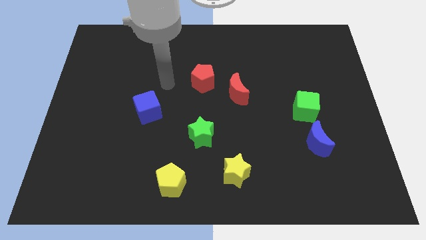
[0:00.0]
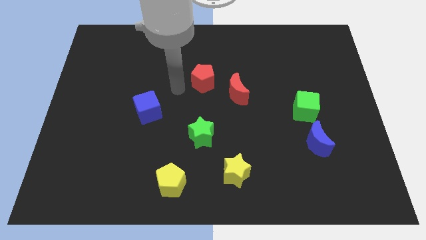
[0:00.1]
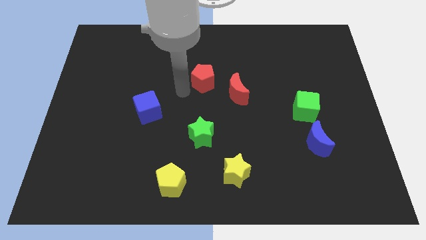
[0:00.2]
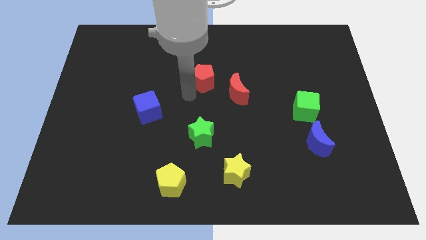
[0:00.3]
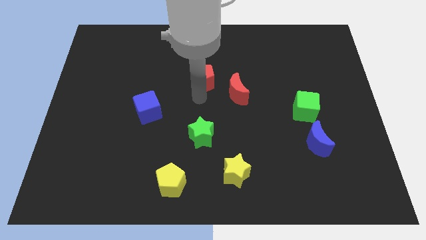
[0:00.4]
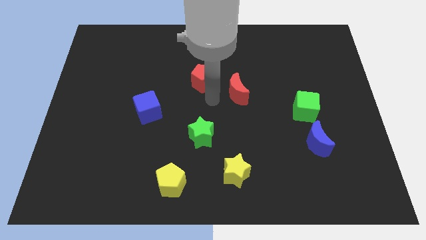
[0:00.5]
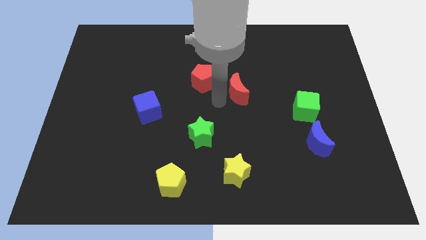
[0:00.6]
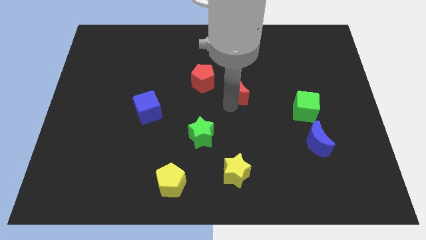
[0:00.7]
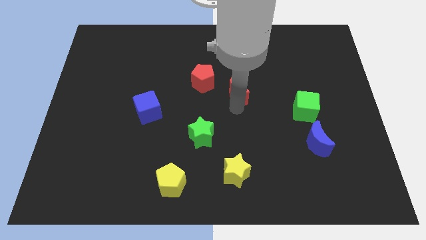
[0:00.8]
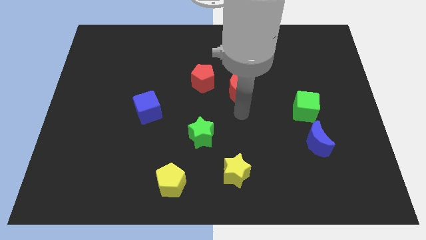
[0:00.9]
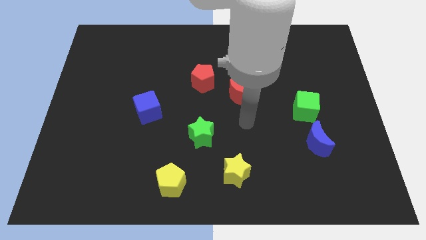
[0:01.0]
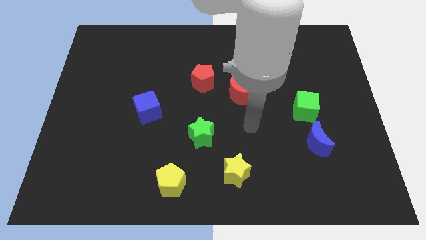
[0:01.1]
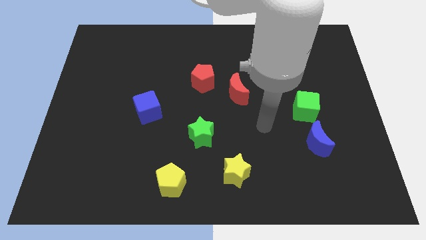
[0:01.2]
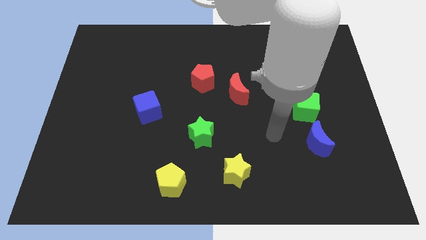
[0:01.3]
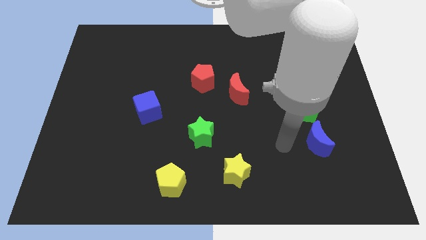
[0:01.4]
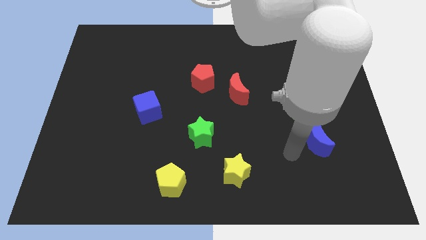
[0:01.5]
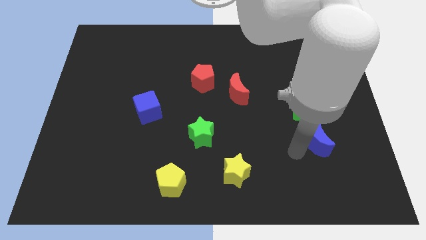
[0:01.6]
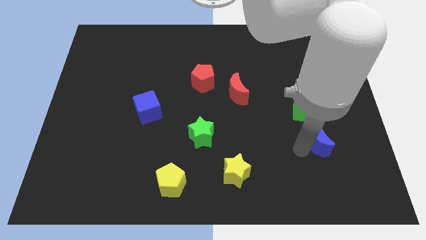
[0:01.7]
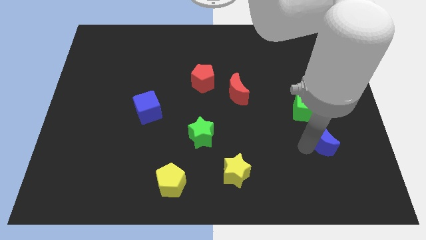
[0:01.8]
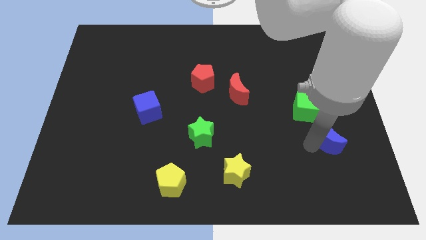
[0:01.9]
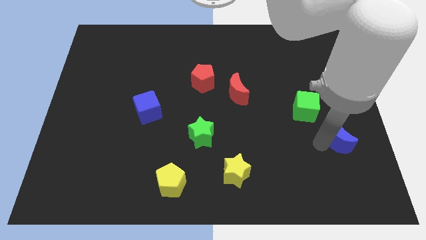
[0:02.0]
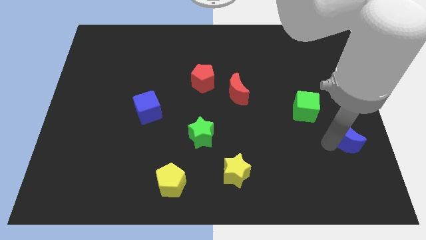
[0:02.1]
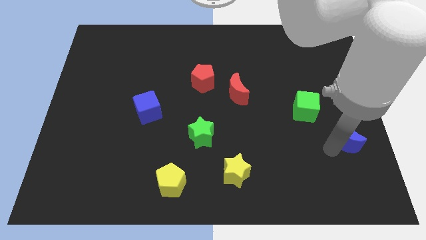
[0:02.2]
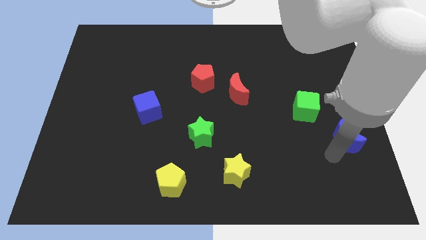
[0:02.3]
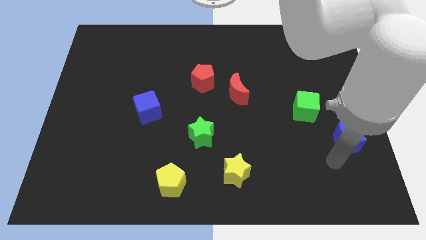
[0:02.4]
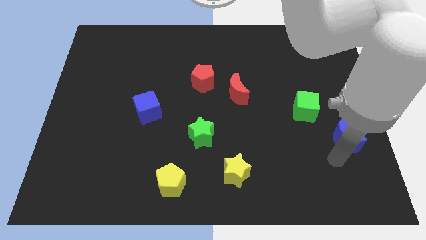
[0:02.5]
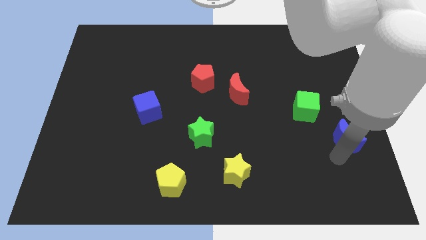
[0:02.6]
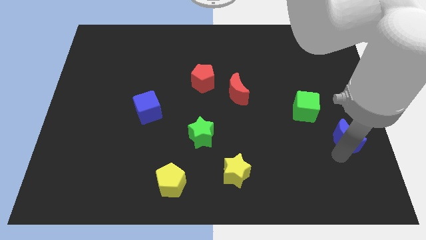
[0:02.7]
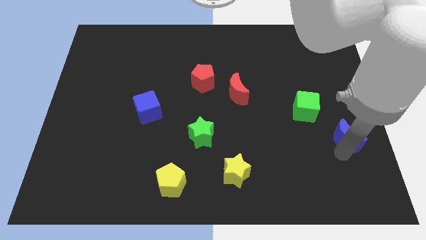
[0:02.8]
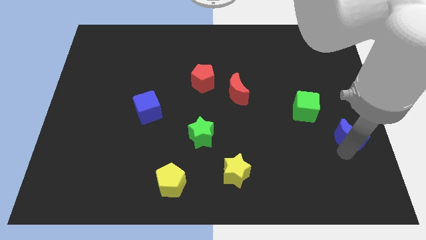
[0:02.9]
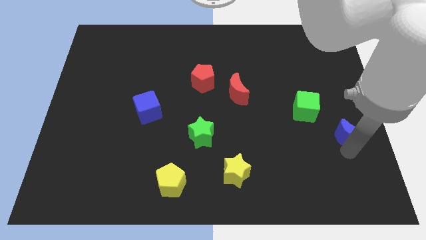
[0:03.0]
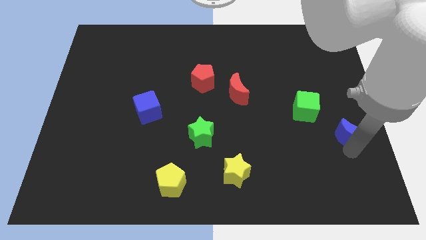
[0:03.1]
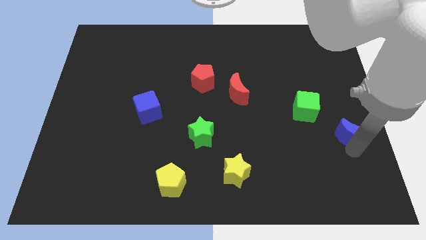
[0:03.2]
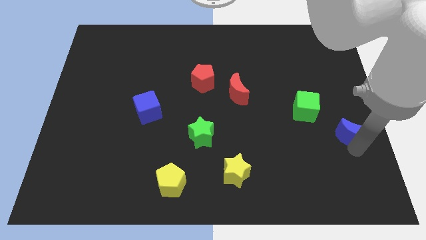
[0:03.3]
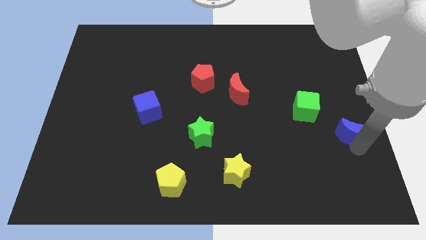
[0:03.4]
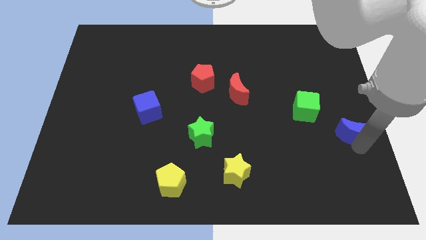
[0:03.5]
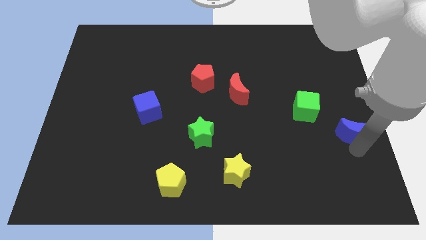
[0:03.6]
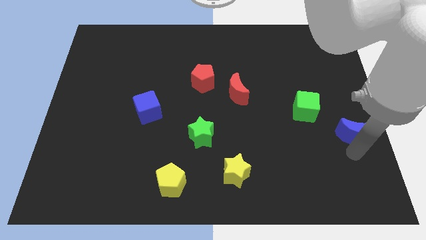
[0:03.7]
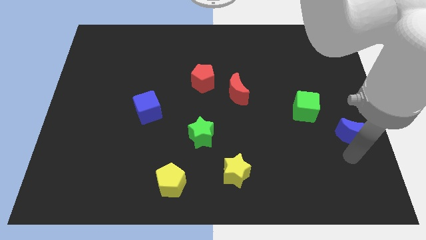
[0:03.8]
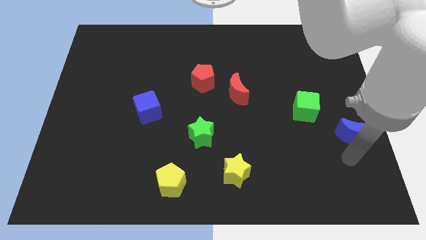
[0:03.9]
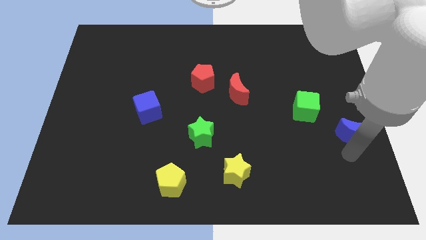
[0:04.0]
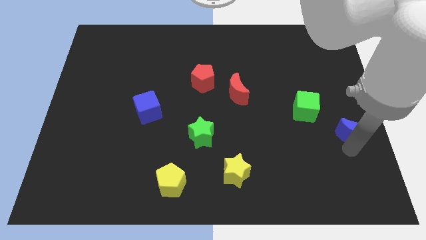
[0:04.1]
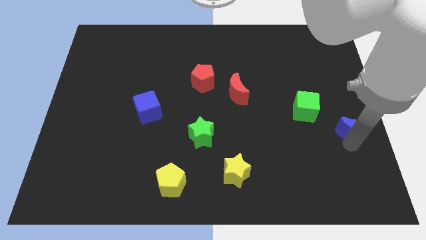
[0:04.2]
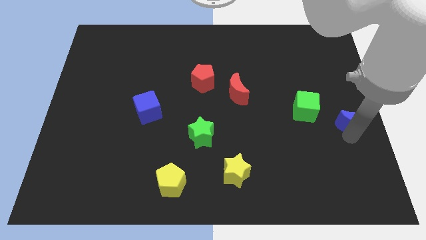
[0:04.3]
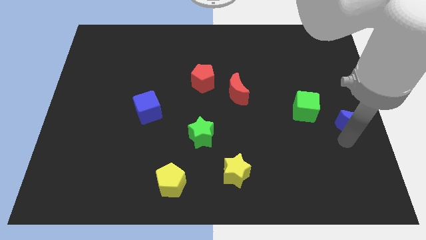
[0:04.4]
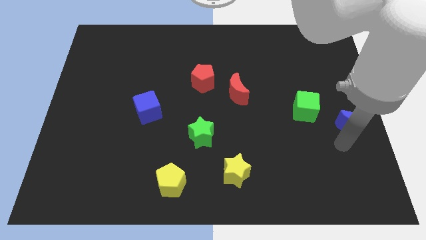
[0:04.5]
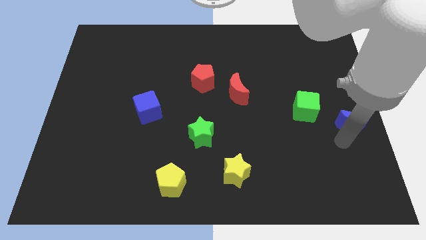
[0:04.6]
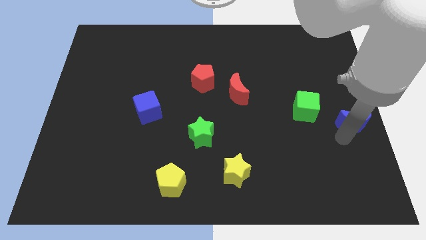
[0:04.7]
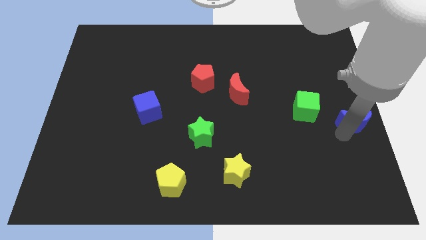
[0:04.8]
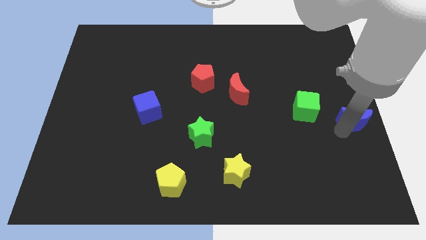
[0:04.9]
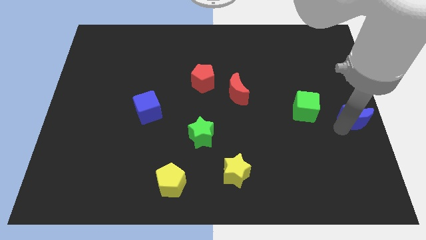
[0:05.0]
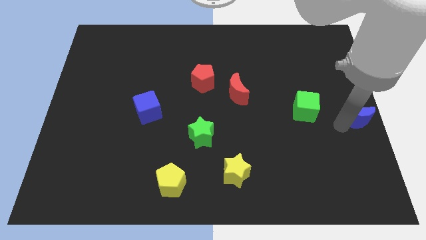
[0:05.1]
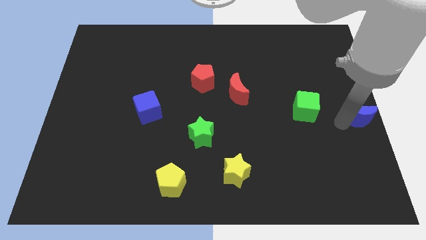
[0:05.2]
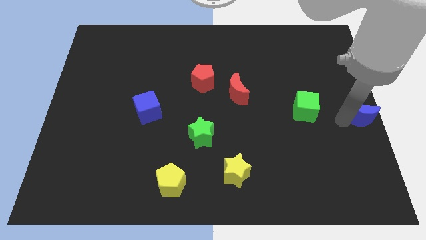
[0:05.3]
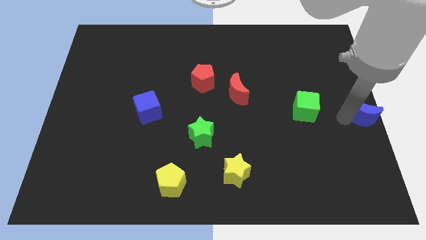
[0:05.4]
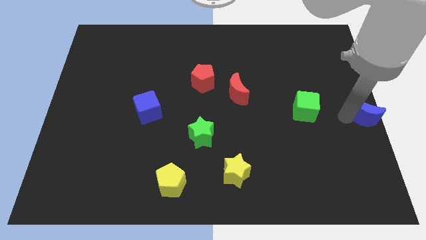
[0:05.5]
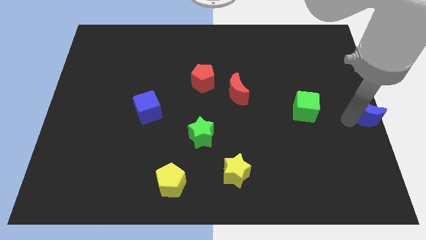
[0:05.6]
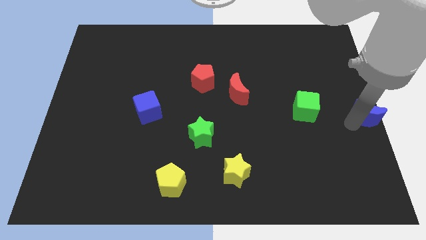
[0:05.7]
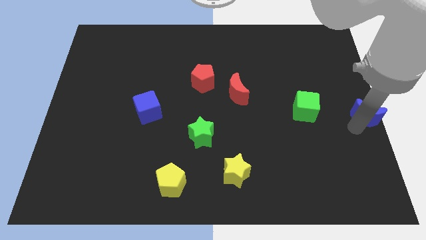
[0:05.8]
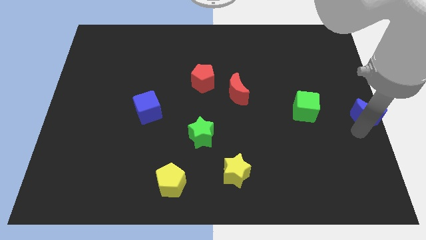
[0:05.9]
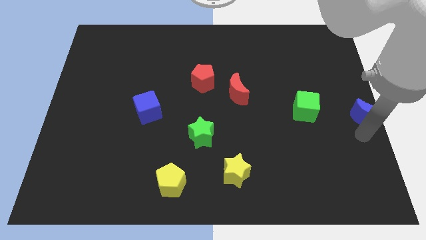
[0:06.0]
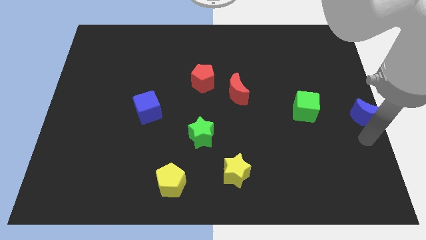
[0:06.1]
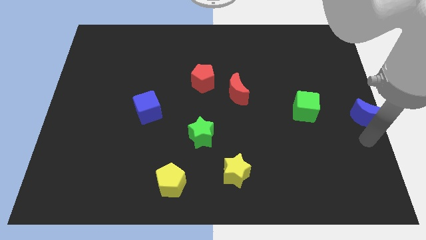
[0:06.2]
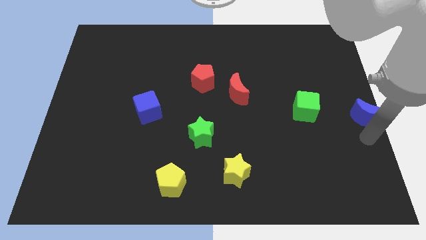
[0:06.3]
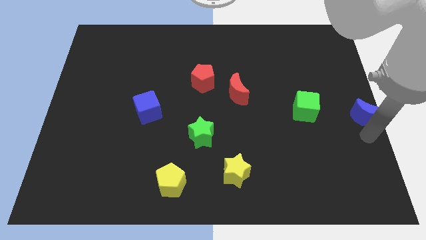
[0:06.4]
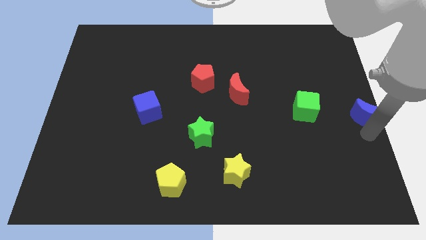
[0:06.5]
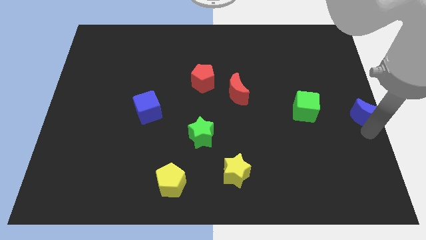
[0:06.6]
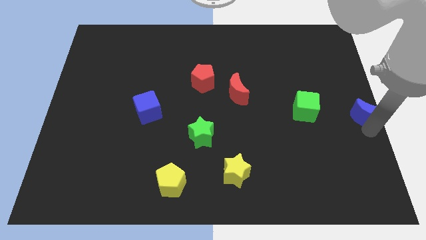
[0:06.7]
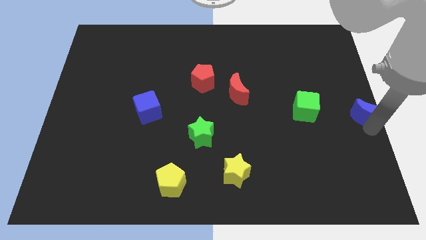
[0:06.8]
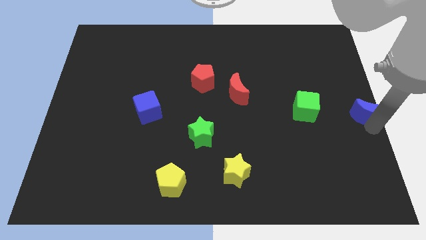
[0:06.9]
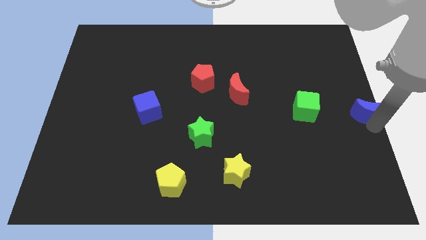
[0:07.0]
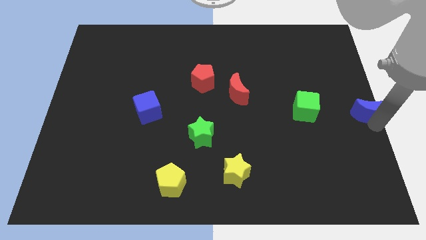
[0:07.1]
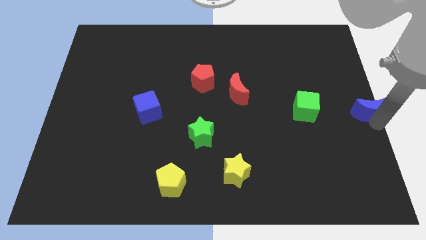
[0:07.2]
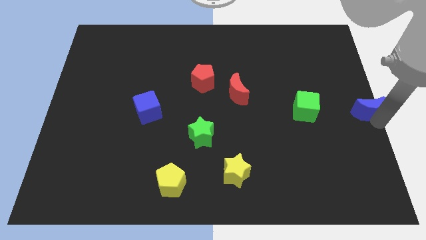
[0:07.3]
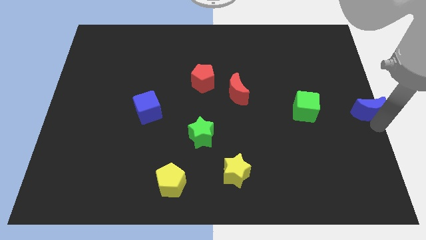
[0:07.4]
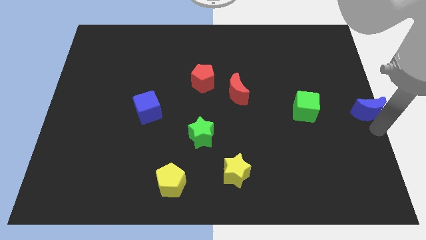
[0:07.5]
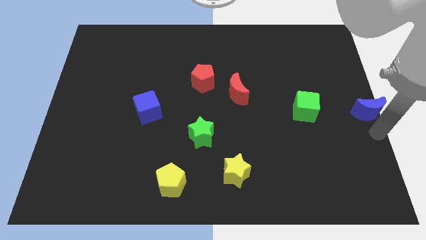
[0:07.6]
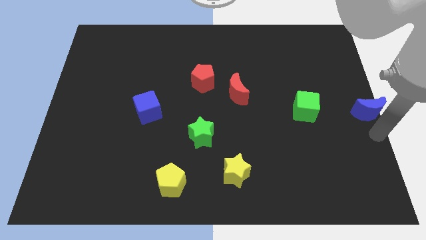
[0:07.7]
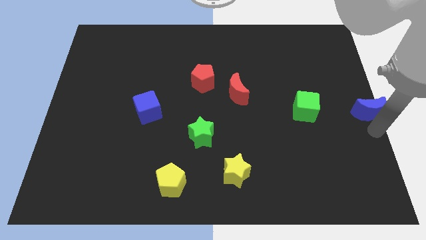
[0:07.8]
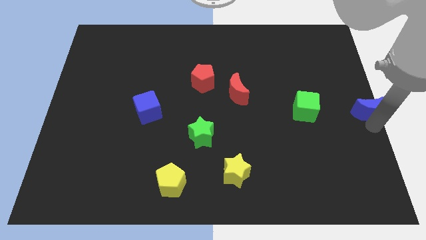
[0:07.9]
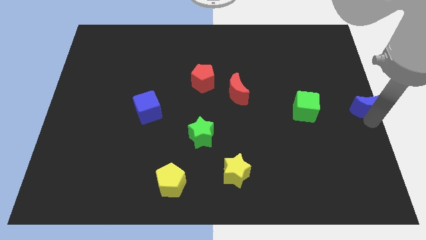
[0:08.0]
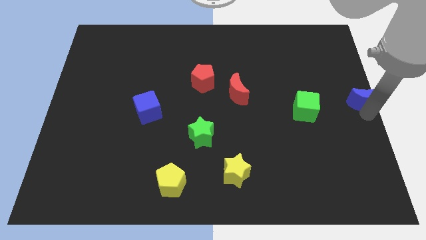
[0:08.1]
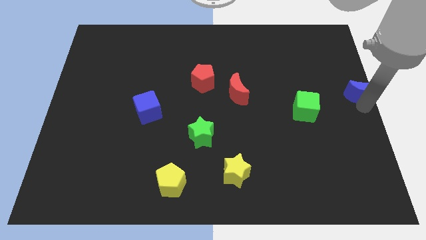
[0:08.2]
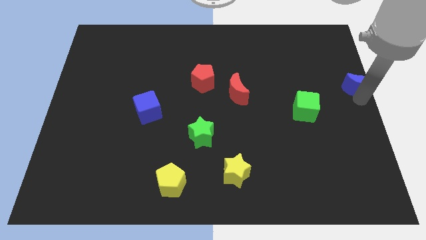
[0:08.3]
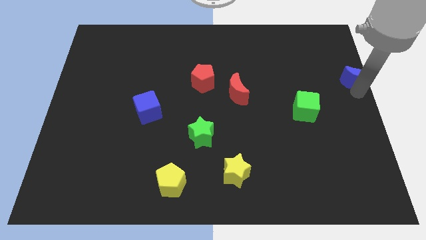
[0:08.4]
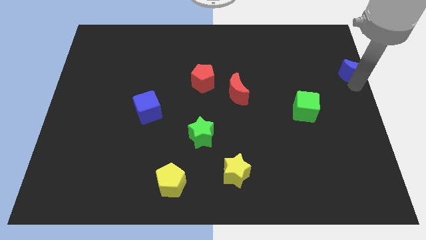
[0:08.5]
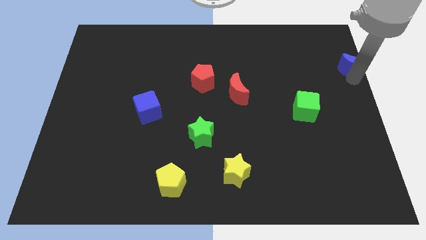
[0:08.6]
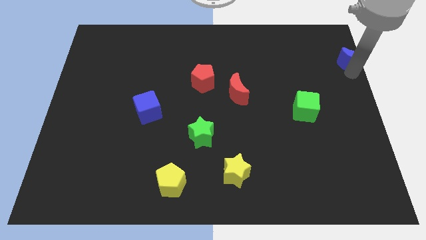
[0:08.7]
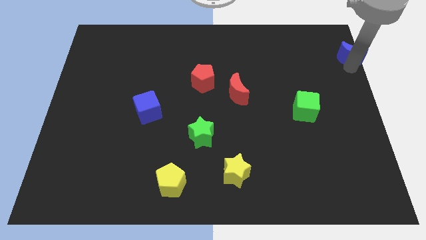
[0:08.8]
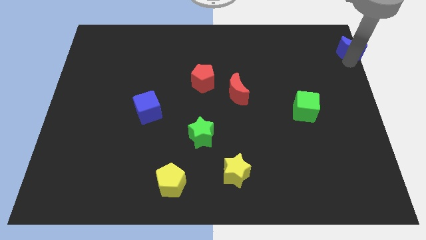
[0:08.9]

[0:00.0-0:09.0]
slide the blue moon to the upper right corner
